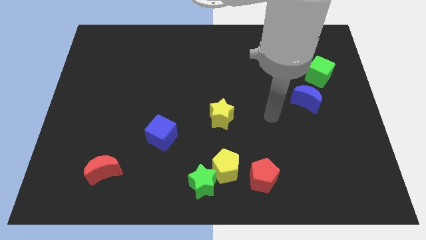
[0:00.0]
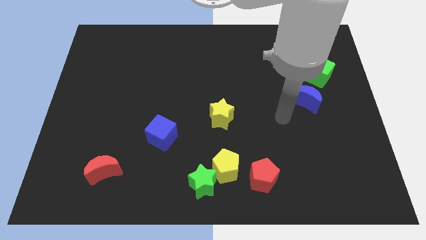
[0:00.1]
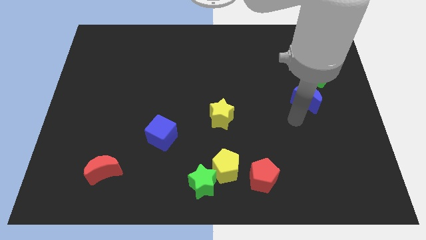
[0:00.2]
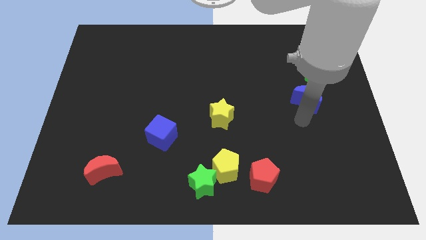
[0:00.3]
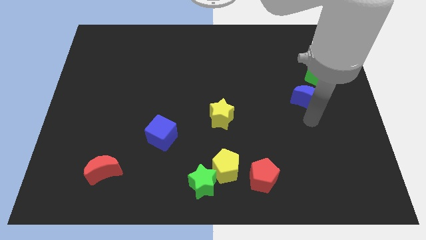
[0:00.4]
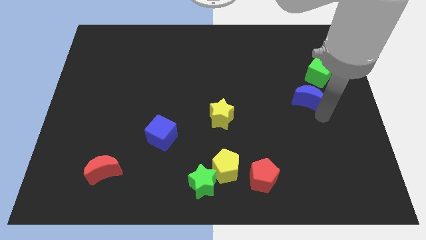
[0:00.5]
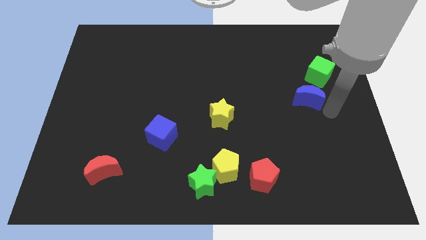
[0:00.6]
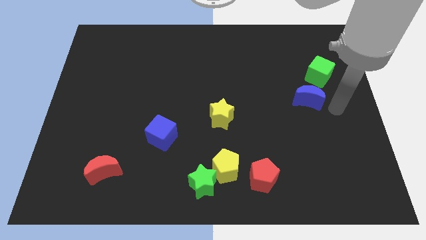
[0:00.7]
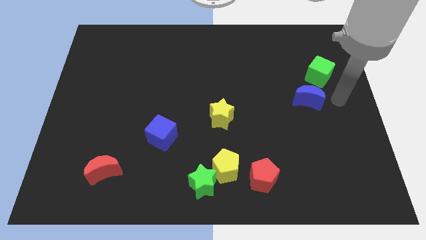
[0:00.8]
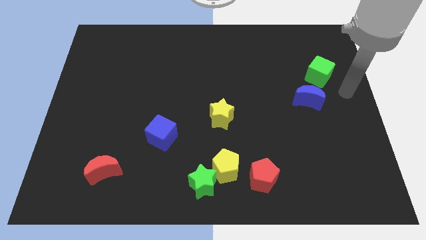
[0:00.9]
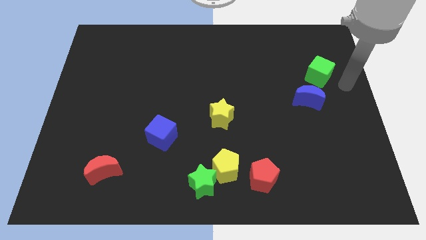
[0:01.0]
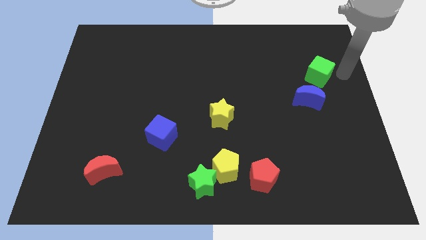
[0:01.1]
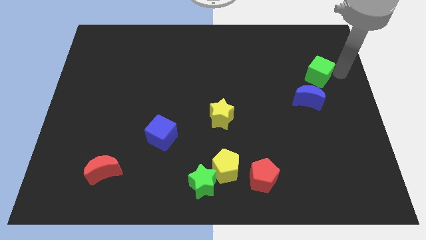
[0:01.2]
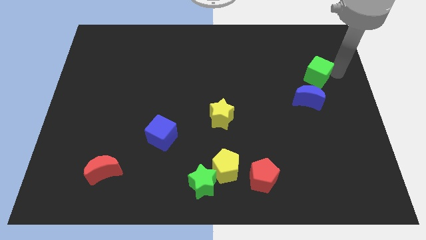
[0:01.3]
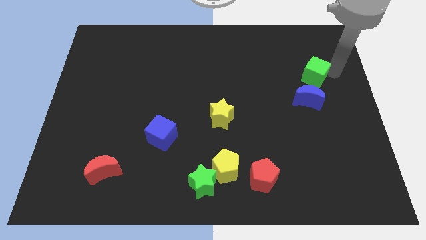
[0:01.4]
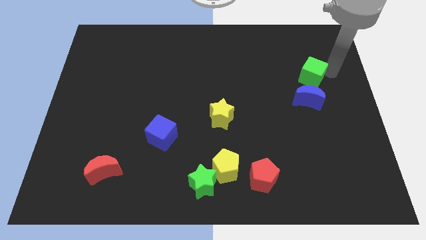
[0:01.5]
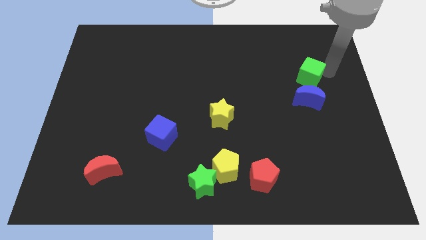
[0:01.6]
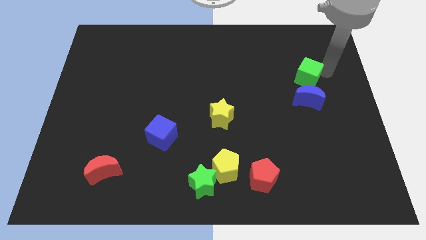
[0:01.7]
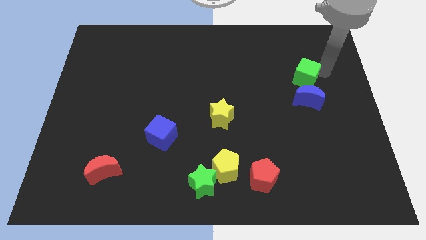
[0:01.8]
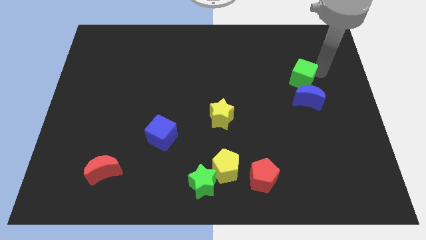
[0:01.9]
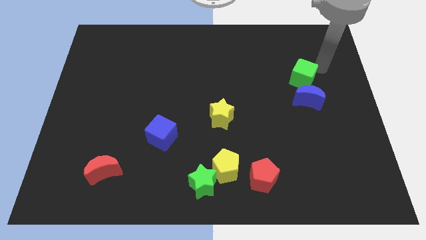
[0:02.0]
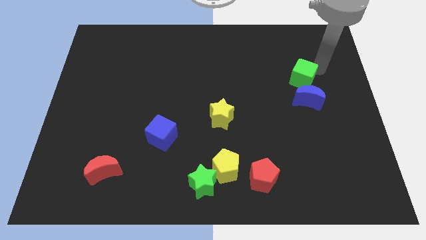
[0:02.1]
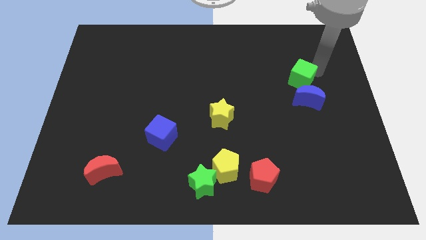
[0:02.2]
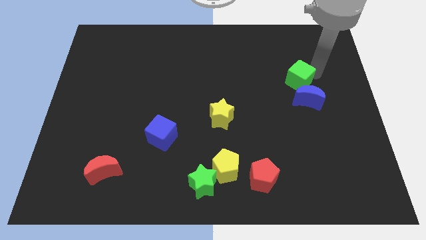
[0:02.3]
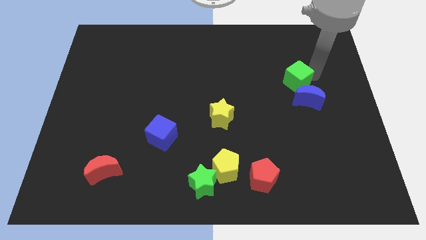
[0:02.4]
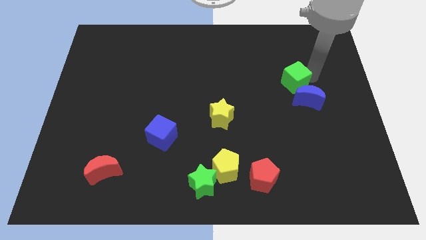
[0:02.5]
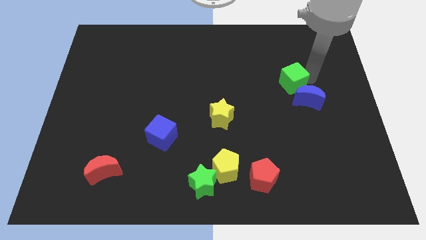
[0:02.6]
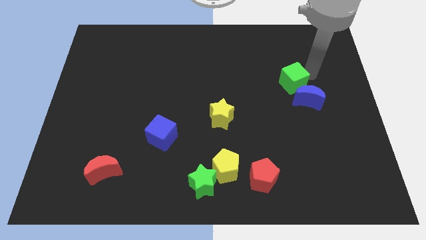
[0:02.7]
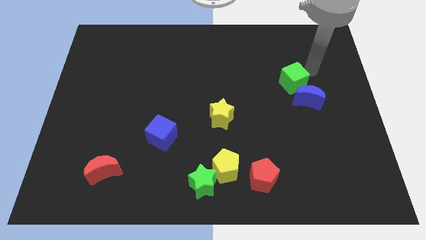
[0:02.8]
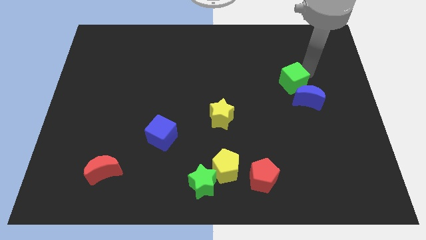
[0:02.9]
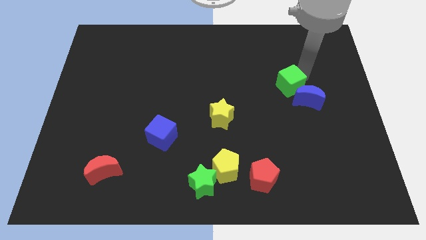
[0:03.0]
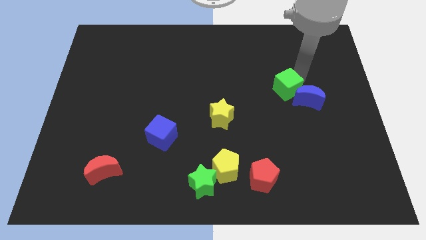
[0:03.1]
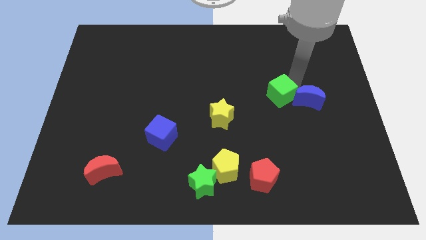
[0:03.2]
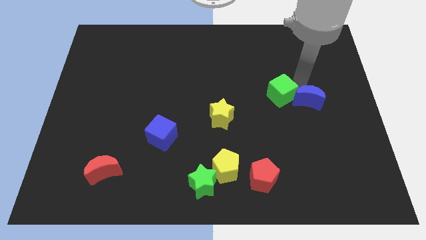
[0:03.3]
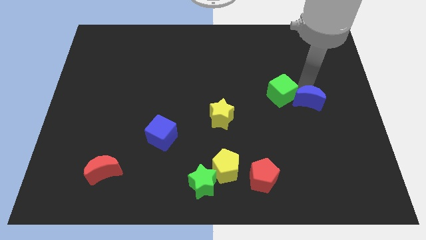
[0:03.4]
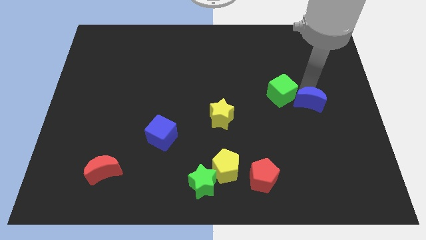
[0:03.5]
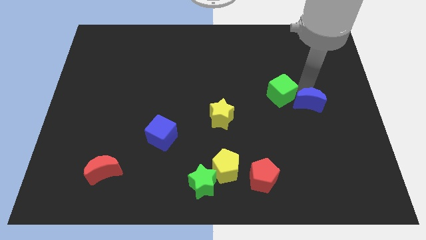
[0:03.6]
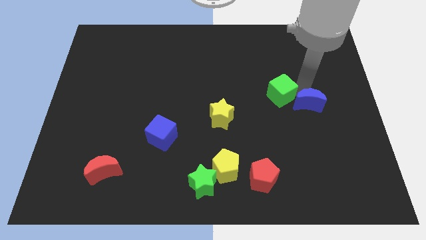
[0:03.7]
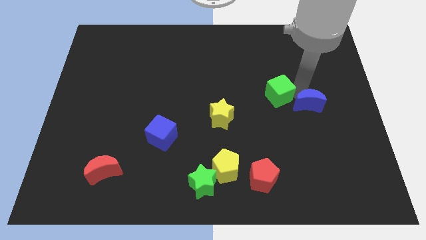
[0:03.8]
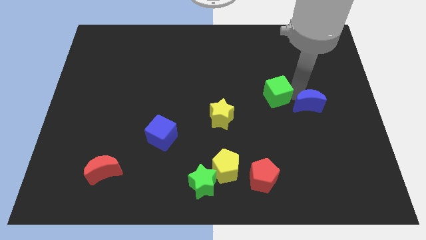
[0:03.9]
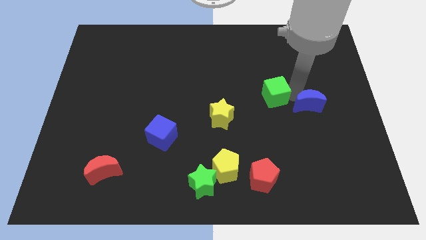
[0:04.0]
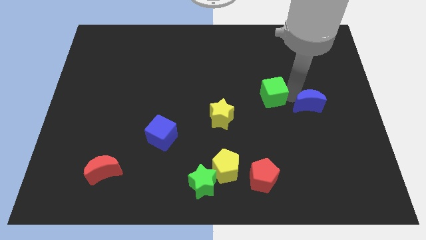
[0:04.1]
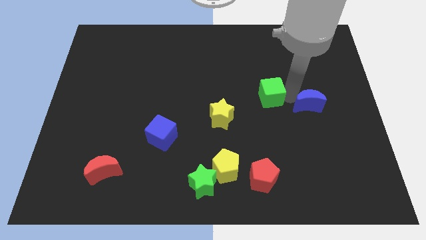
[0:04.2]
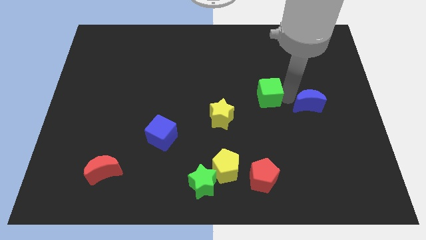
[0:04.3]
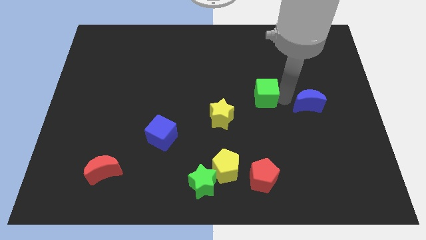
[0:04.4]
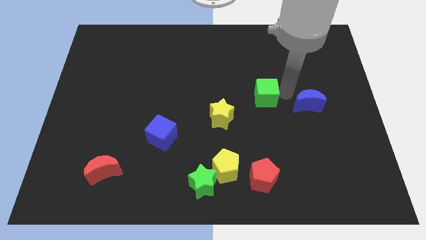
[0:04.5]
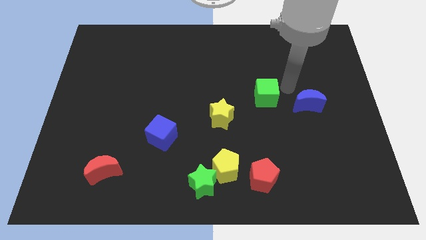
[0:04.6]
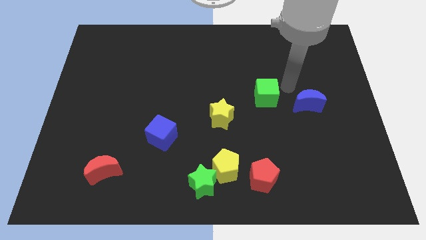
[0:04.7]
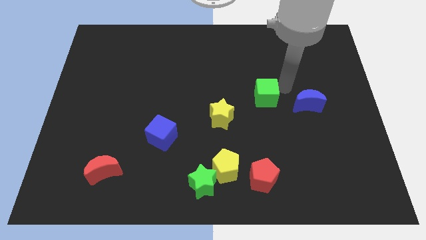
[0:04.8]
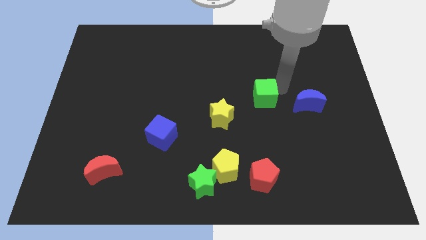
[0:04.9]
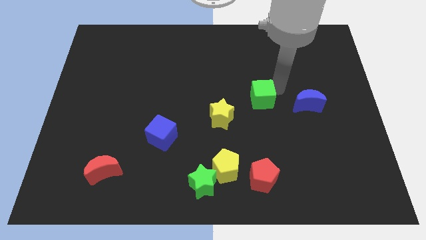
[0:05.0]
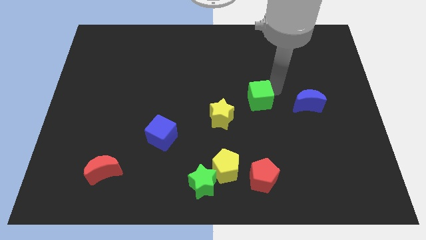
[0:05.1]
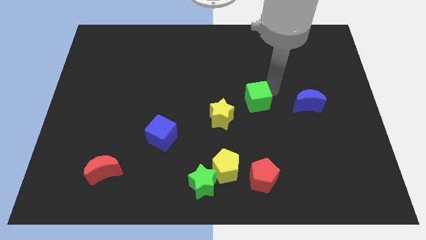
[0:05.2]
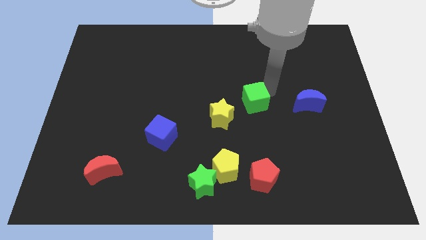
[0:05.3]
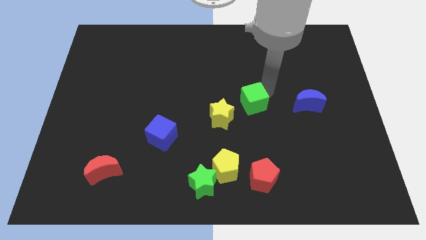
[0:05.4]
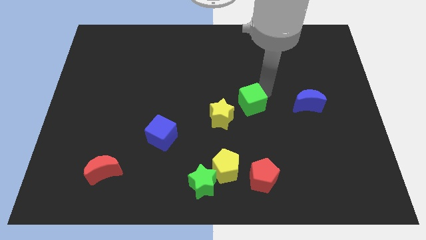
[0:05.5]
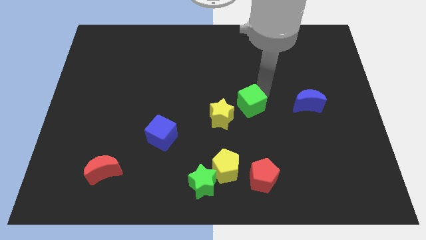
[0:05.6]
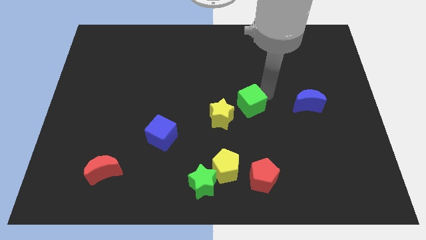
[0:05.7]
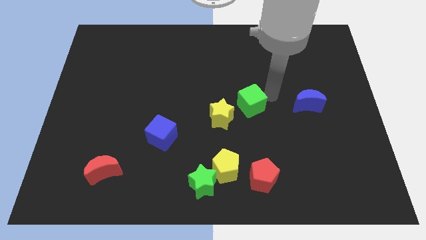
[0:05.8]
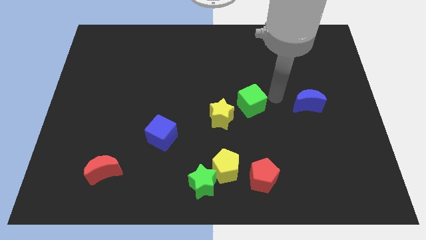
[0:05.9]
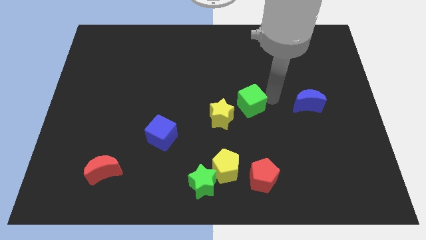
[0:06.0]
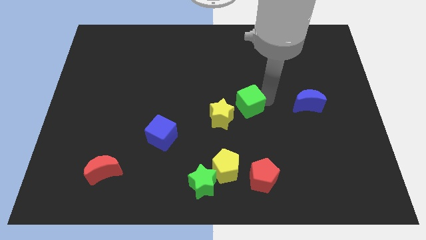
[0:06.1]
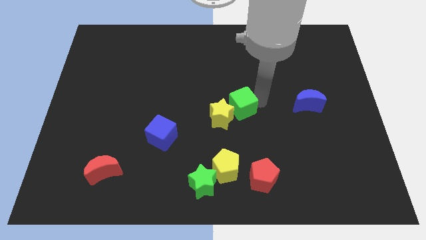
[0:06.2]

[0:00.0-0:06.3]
push the green cube to the yellow star
